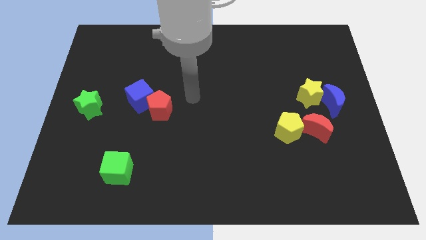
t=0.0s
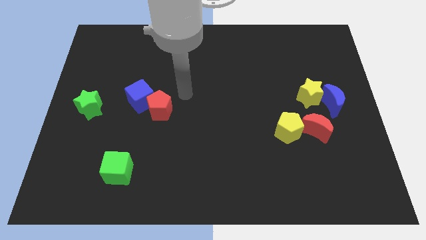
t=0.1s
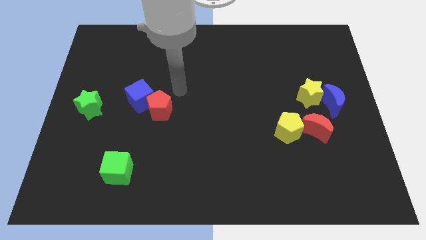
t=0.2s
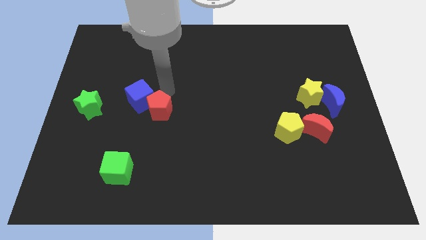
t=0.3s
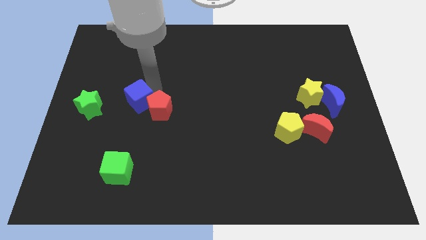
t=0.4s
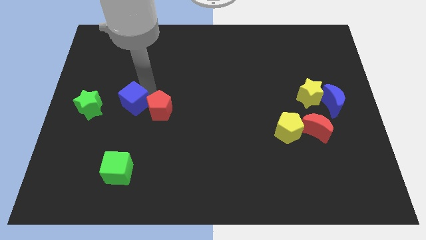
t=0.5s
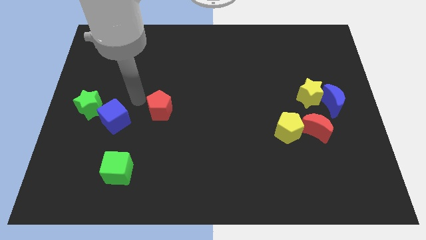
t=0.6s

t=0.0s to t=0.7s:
separate the red pentagon from the blue cube

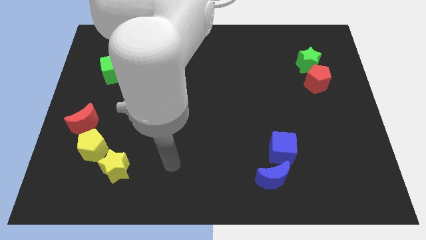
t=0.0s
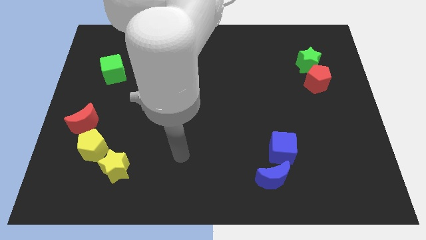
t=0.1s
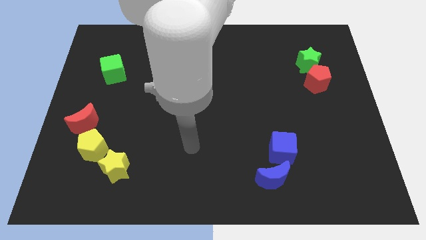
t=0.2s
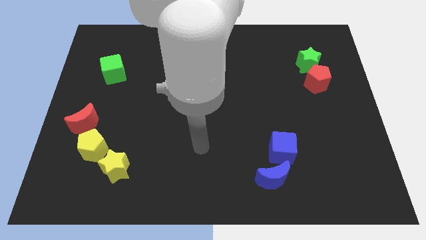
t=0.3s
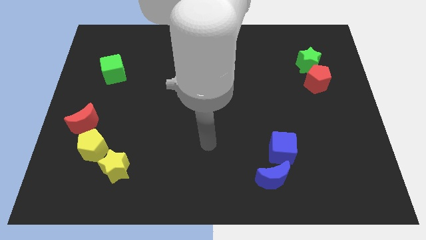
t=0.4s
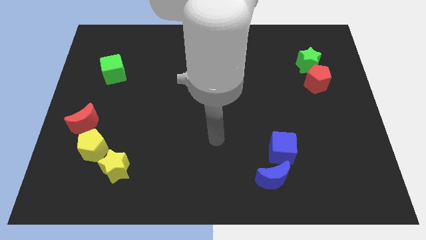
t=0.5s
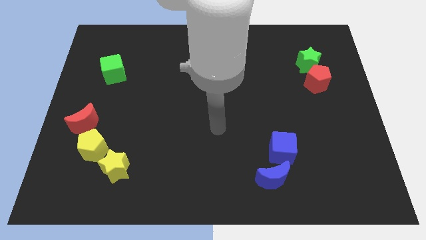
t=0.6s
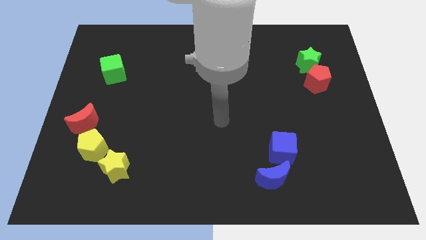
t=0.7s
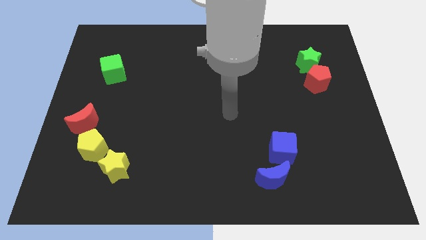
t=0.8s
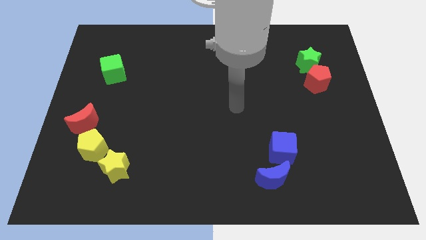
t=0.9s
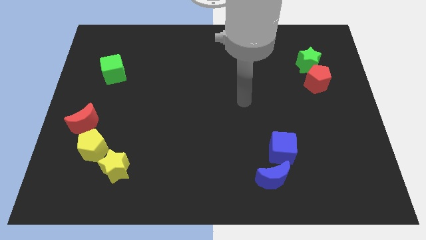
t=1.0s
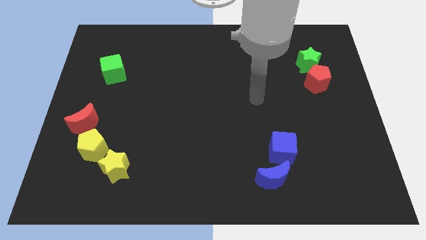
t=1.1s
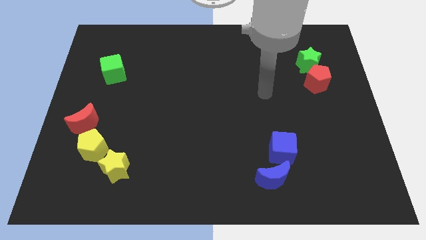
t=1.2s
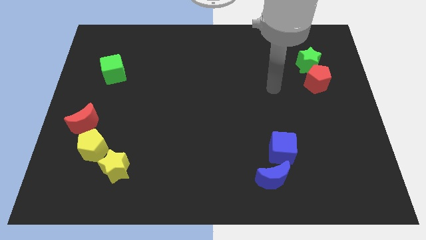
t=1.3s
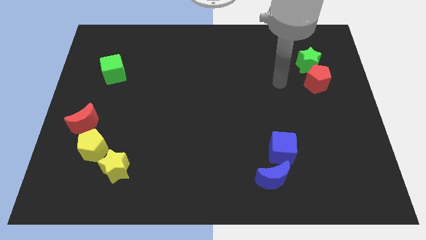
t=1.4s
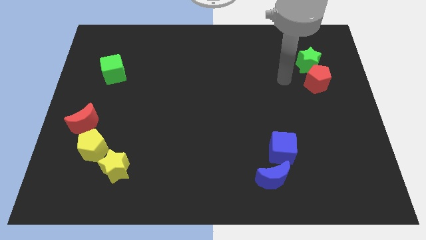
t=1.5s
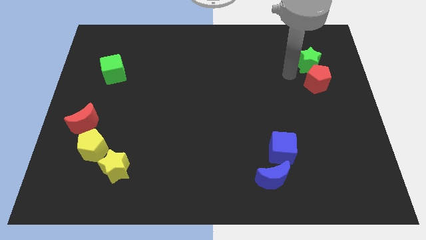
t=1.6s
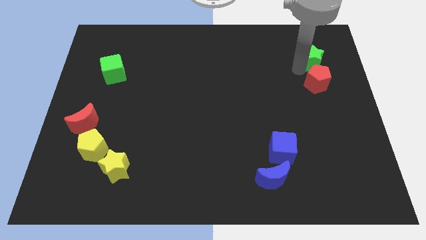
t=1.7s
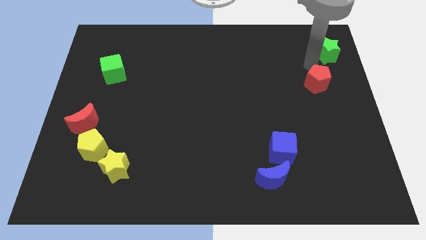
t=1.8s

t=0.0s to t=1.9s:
move the red pentagon away from the green star

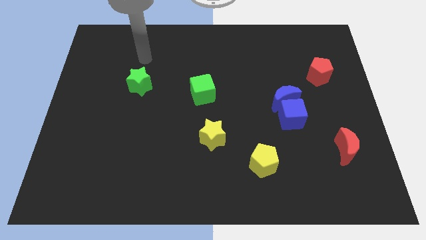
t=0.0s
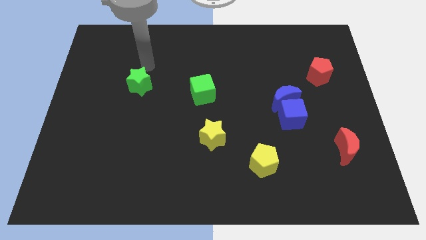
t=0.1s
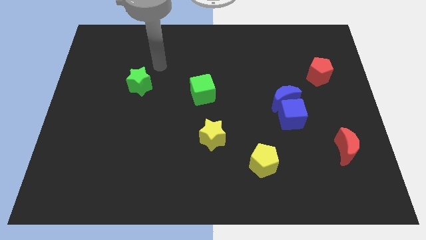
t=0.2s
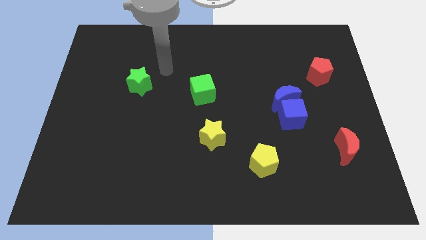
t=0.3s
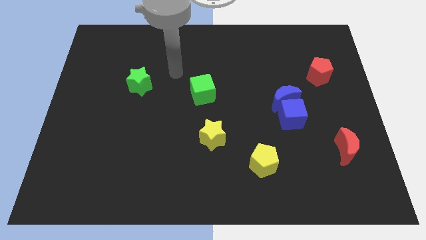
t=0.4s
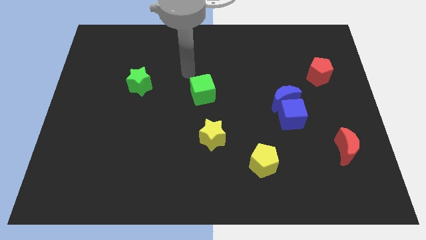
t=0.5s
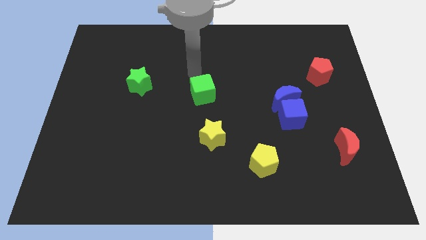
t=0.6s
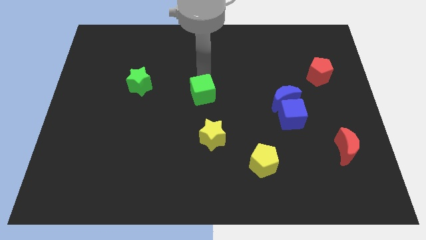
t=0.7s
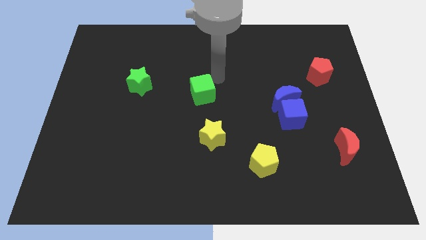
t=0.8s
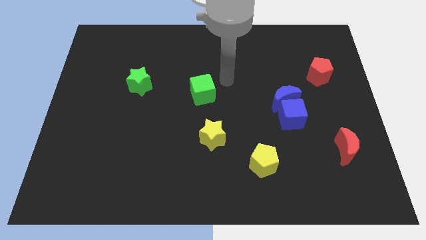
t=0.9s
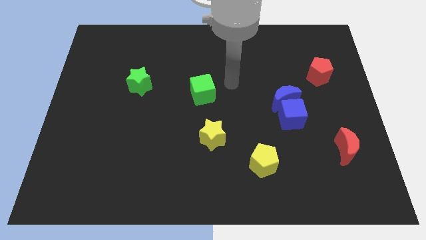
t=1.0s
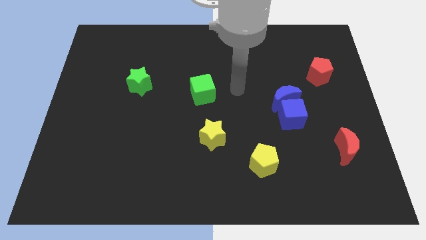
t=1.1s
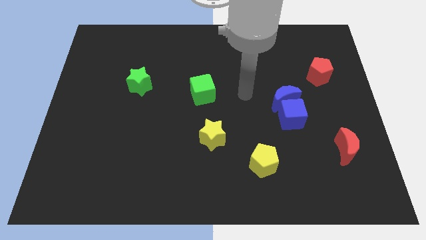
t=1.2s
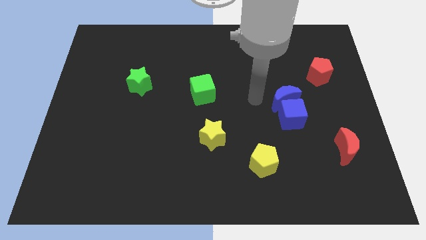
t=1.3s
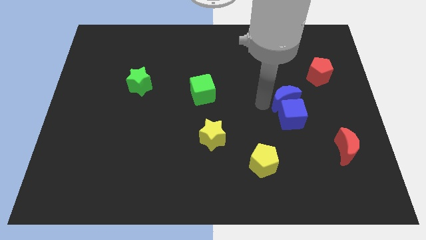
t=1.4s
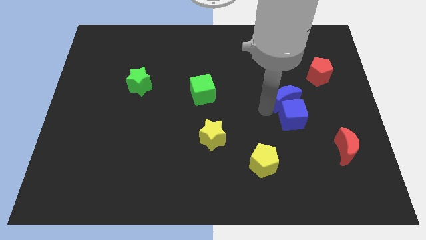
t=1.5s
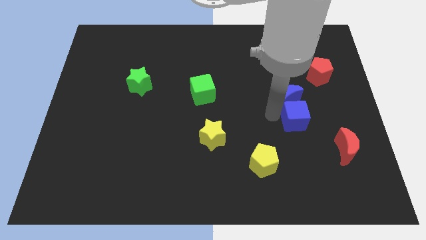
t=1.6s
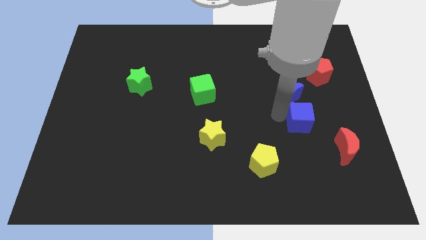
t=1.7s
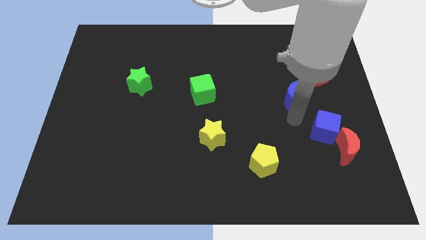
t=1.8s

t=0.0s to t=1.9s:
pull the blue moon apart from the blue cube

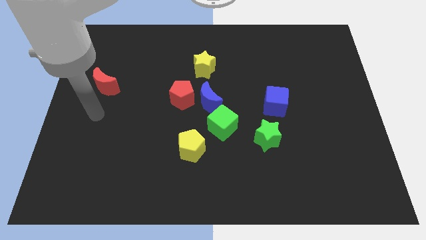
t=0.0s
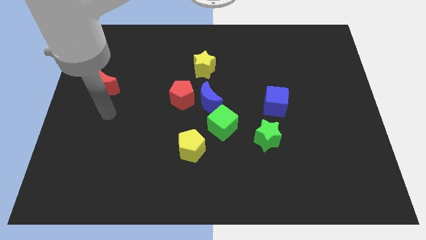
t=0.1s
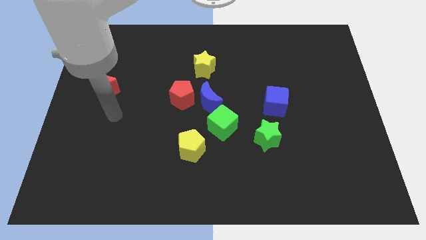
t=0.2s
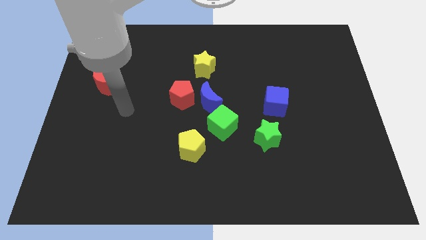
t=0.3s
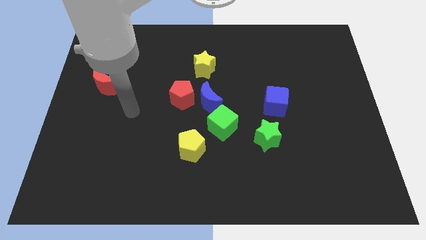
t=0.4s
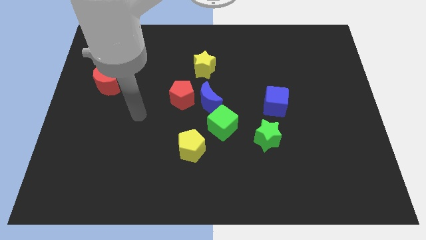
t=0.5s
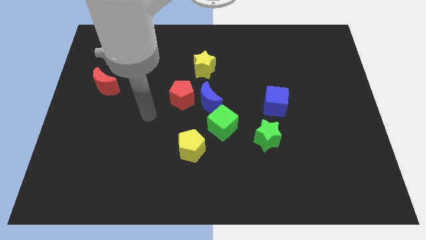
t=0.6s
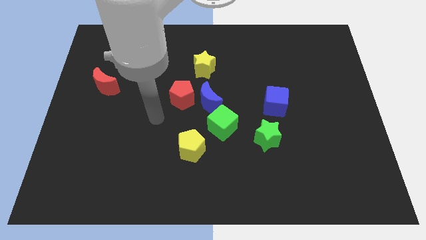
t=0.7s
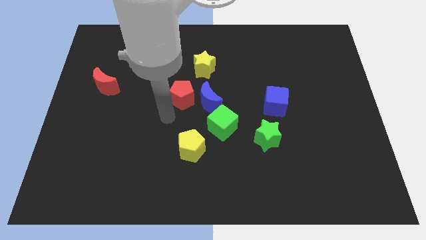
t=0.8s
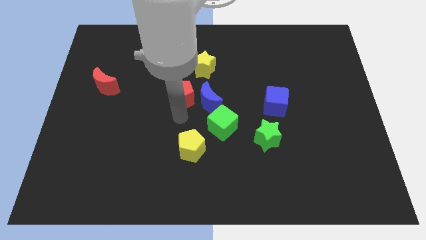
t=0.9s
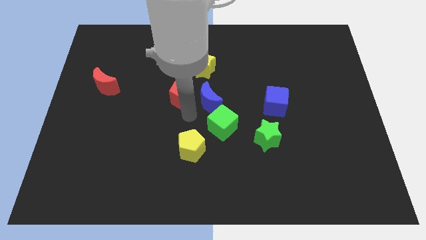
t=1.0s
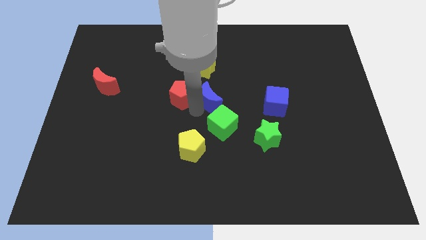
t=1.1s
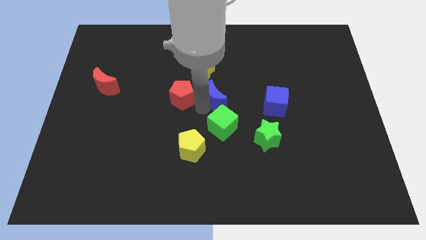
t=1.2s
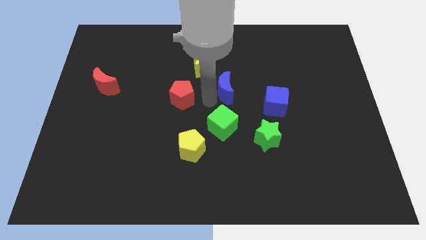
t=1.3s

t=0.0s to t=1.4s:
pull the red pentagon apart from the blue moon

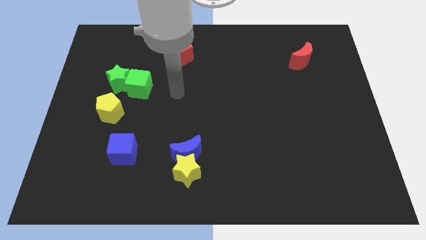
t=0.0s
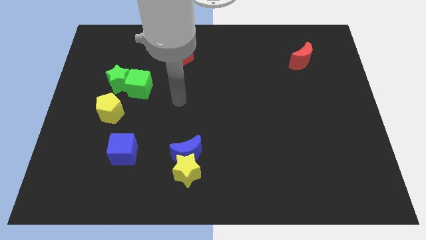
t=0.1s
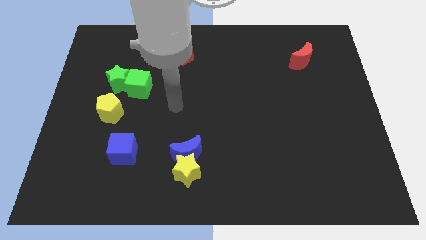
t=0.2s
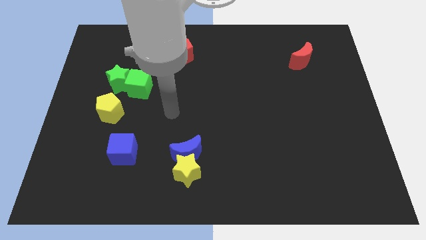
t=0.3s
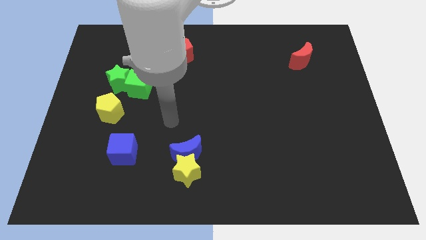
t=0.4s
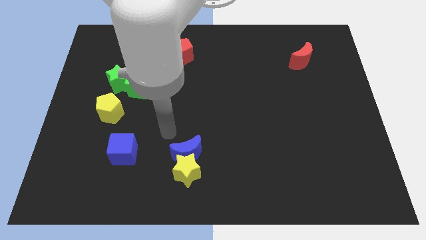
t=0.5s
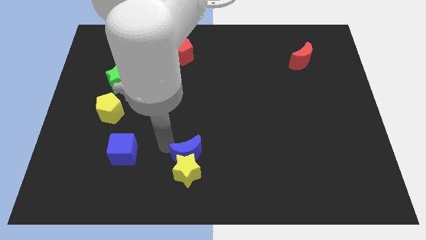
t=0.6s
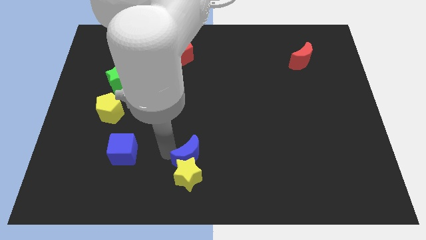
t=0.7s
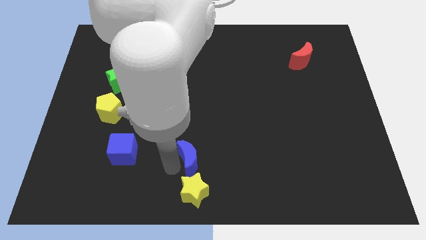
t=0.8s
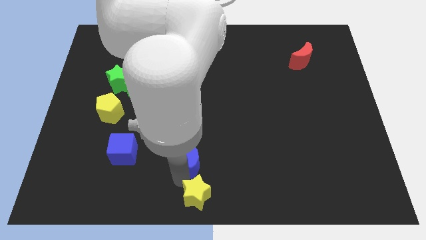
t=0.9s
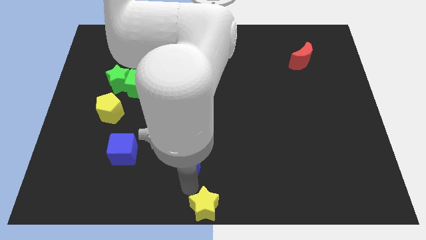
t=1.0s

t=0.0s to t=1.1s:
move the blue moon away from the yellow star

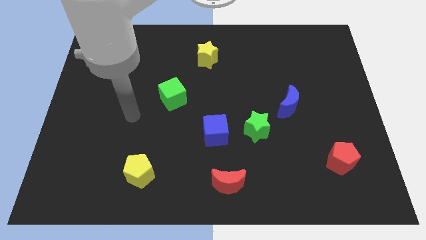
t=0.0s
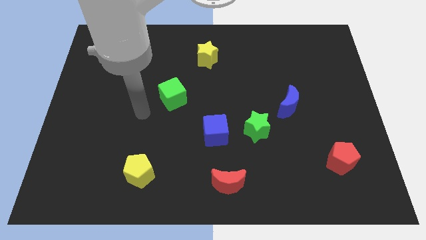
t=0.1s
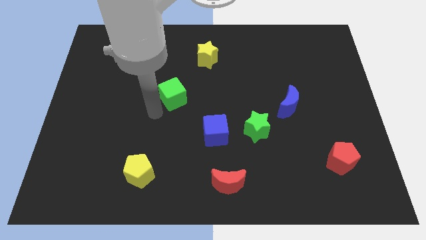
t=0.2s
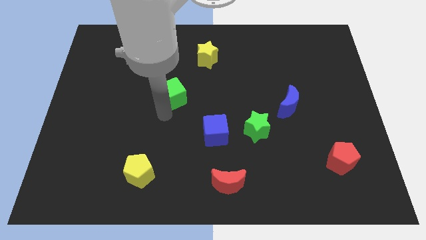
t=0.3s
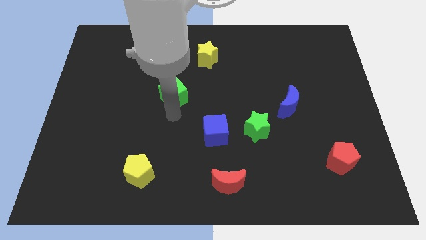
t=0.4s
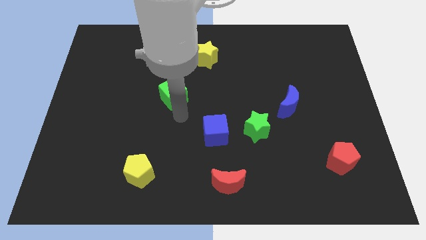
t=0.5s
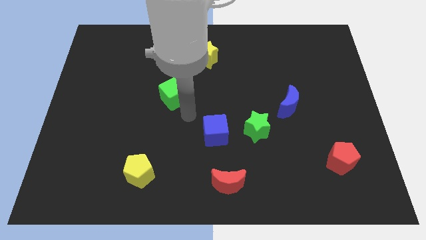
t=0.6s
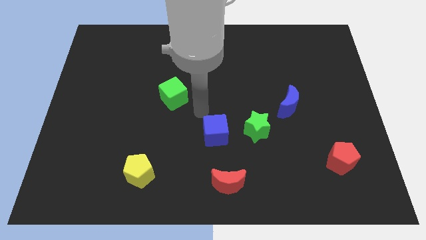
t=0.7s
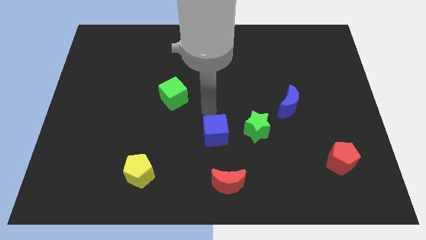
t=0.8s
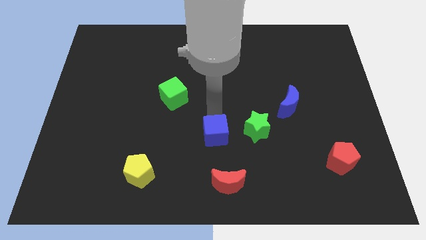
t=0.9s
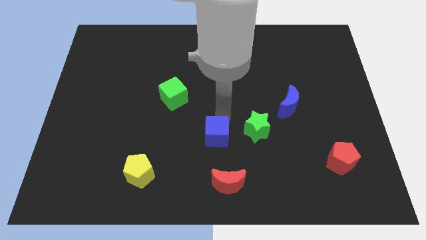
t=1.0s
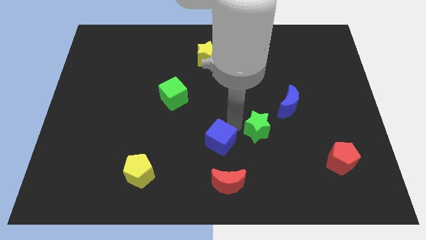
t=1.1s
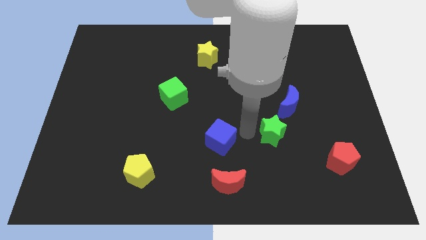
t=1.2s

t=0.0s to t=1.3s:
separate the blue cube from the green star

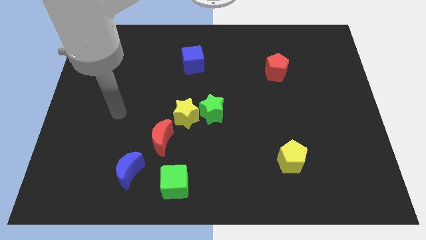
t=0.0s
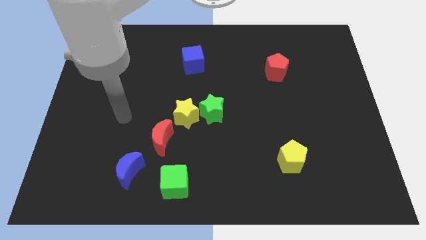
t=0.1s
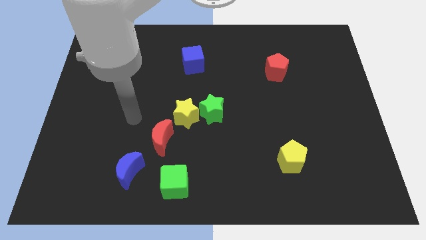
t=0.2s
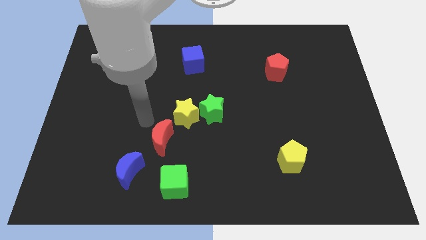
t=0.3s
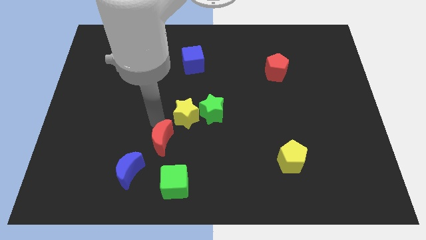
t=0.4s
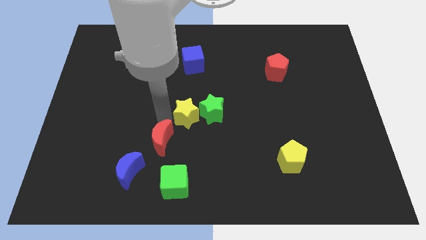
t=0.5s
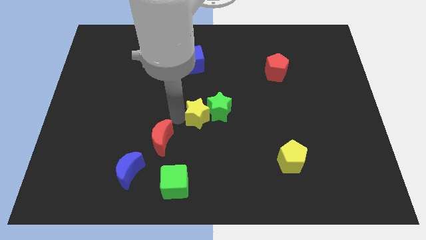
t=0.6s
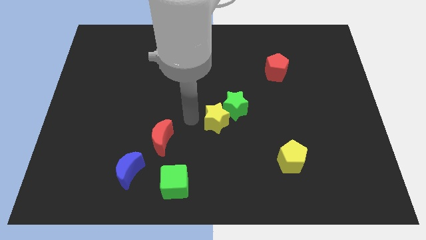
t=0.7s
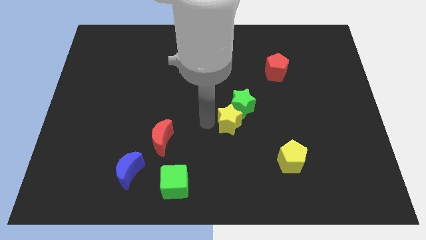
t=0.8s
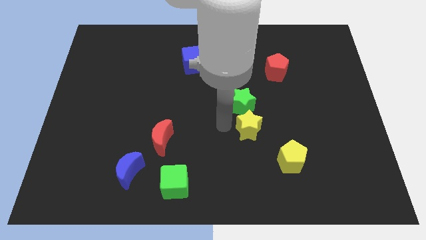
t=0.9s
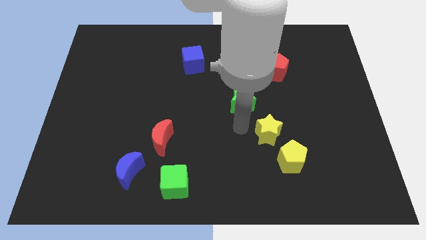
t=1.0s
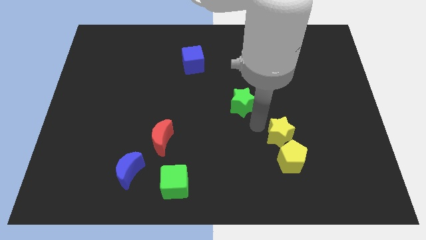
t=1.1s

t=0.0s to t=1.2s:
separate the green star from the yellow star
